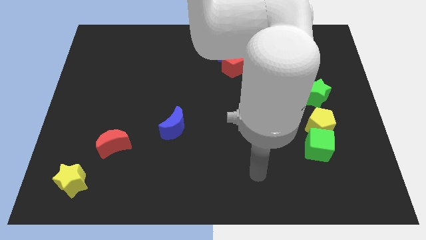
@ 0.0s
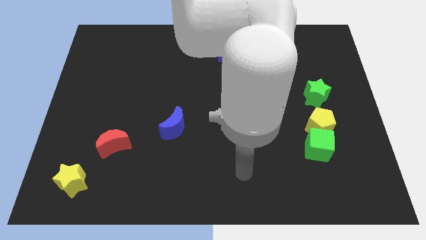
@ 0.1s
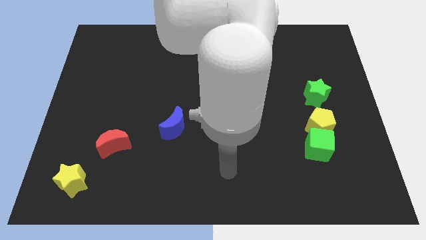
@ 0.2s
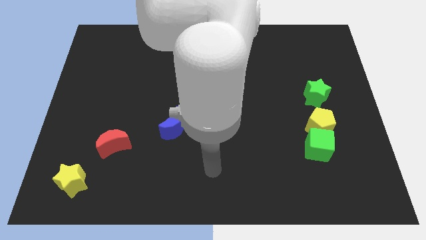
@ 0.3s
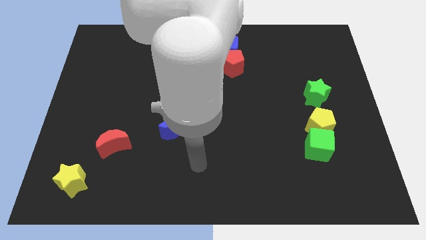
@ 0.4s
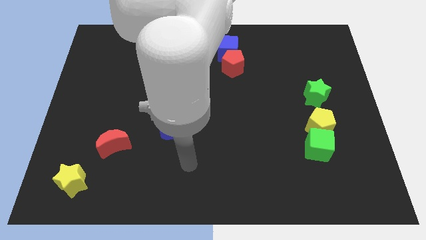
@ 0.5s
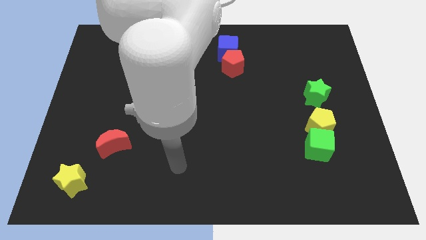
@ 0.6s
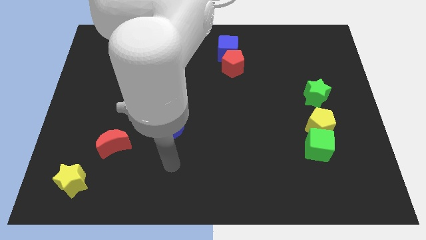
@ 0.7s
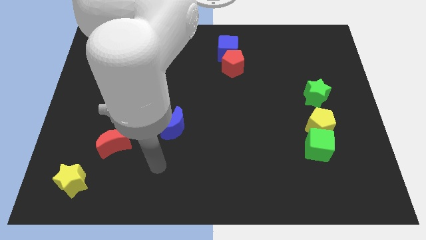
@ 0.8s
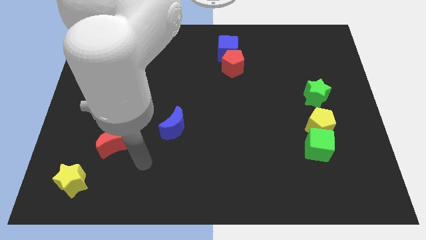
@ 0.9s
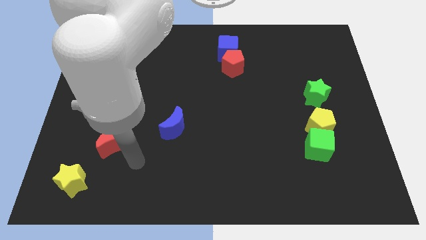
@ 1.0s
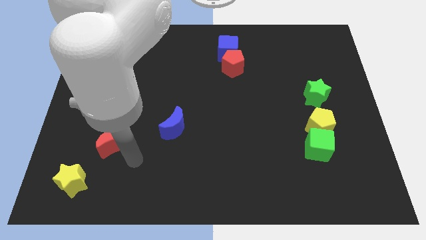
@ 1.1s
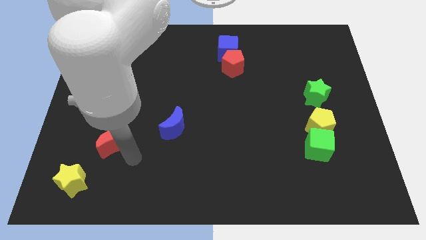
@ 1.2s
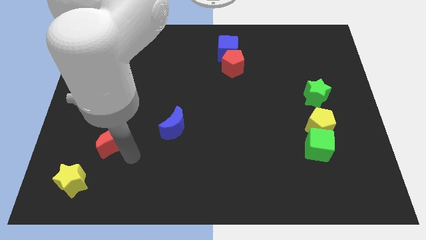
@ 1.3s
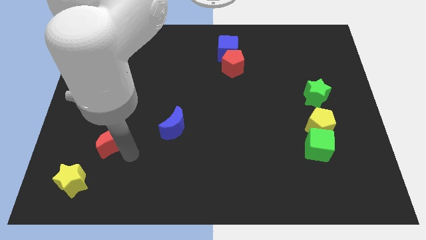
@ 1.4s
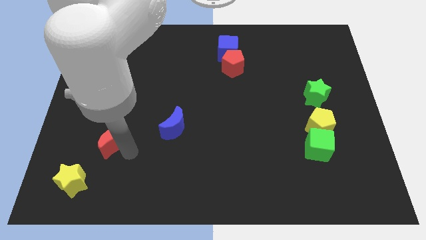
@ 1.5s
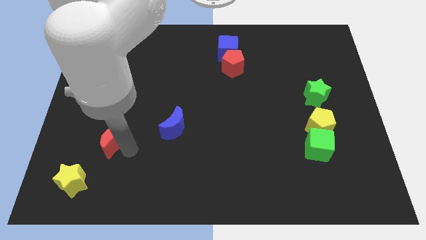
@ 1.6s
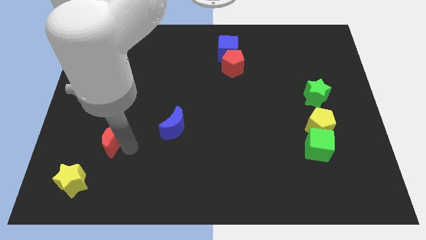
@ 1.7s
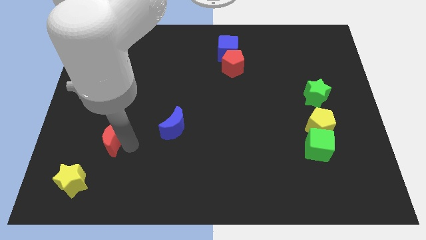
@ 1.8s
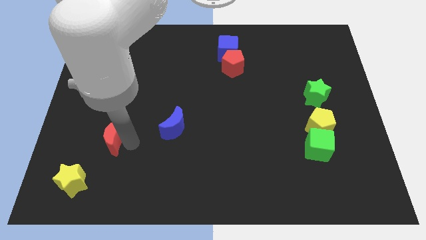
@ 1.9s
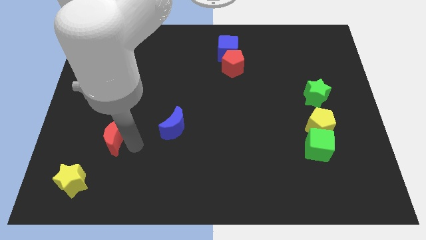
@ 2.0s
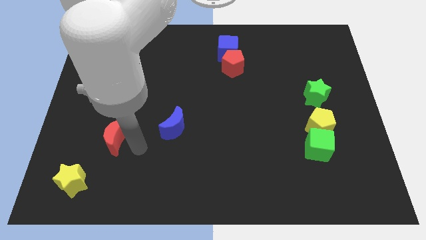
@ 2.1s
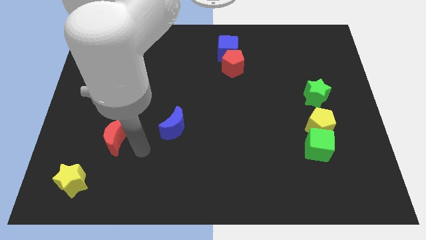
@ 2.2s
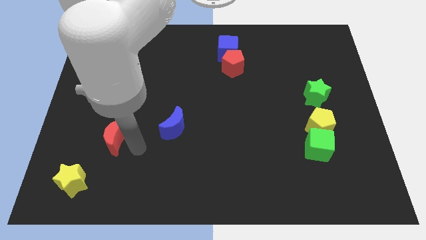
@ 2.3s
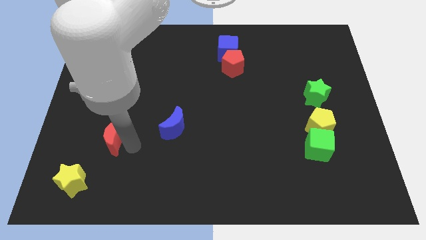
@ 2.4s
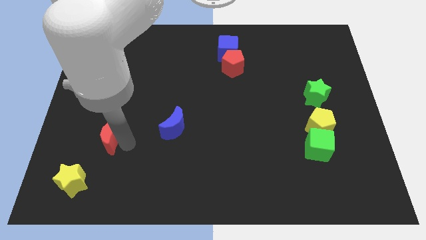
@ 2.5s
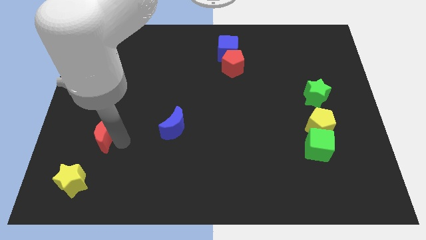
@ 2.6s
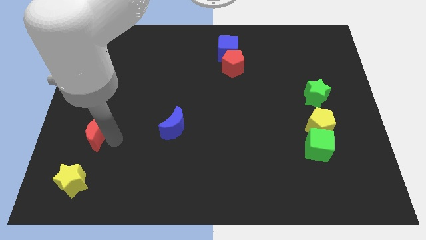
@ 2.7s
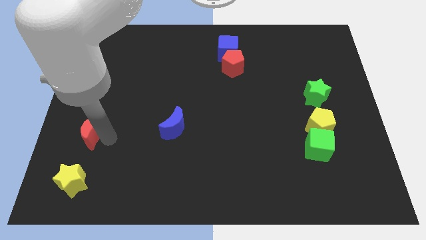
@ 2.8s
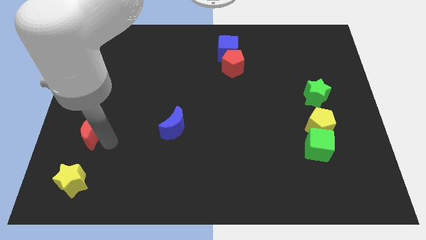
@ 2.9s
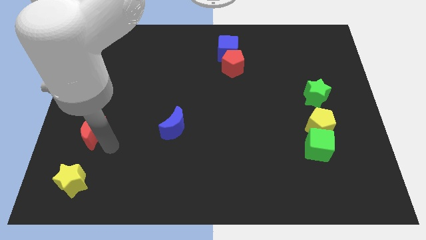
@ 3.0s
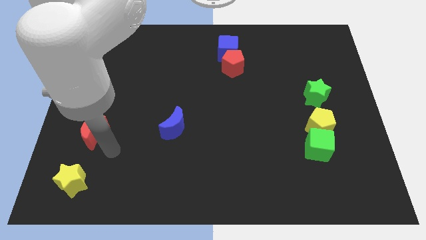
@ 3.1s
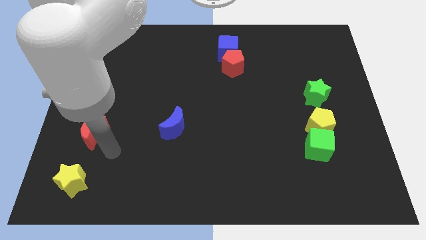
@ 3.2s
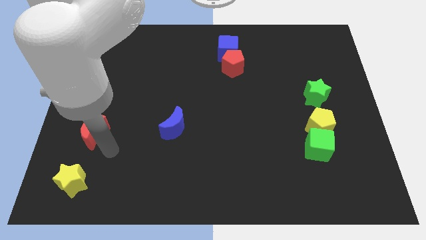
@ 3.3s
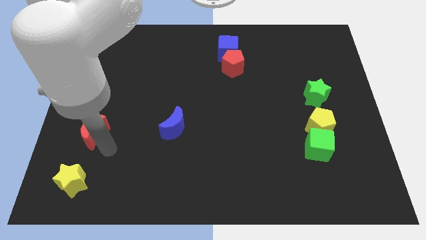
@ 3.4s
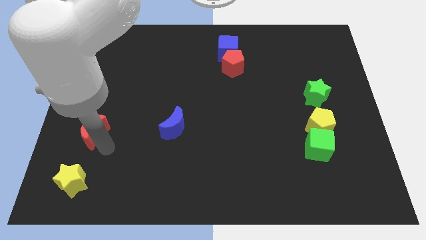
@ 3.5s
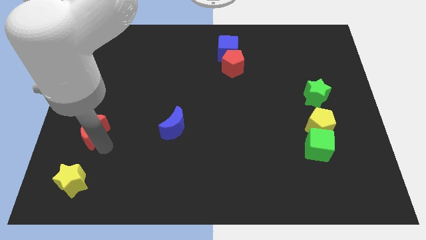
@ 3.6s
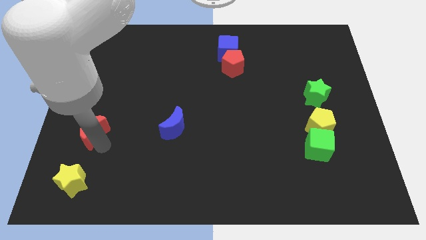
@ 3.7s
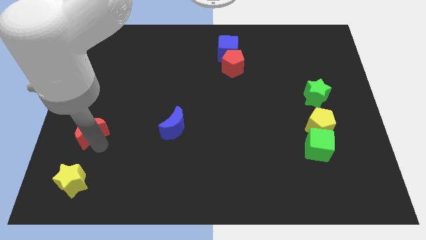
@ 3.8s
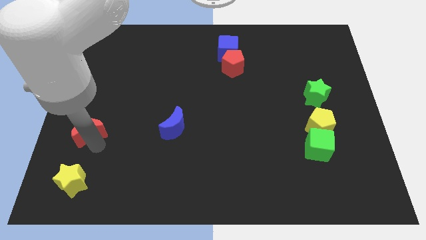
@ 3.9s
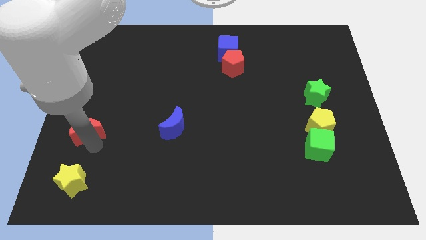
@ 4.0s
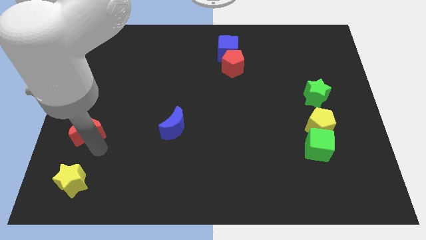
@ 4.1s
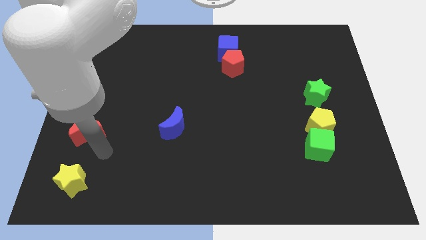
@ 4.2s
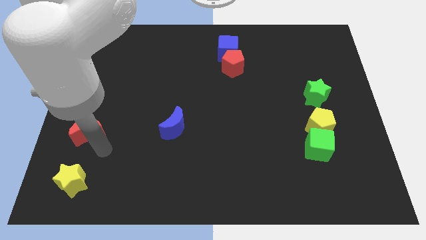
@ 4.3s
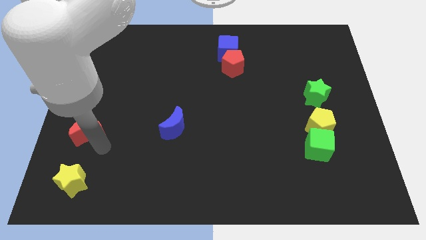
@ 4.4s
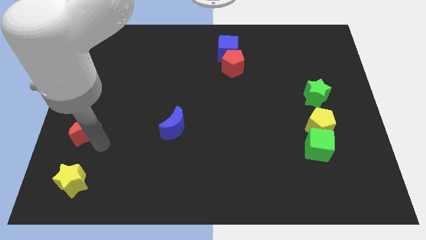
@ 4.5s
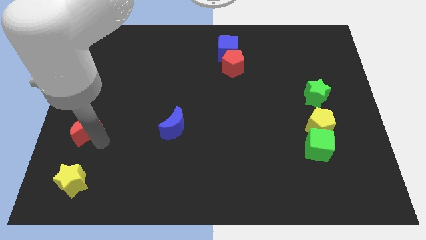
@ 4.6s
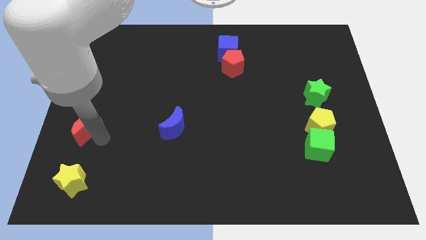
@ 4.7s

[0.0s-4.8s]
put the red moon to the left side

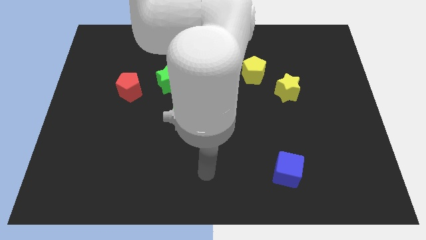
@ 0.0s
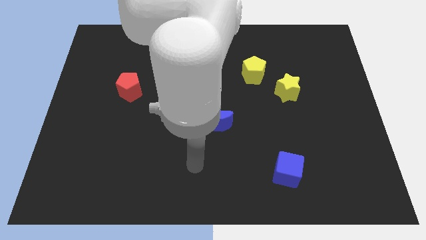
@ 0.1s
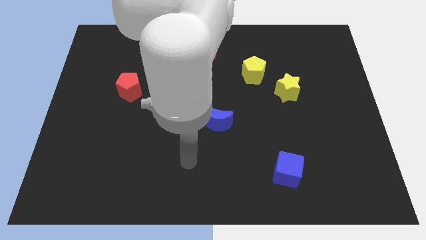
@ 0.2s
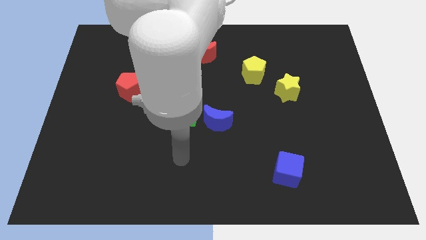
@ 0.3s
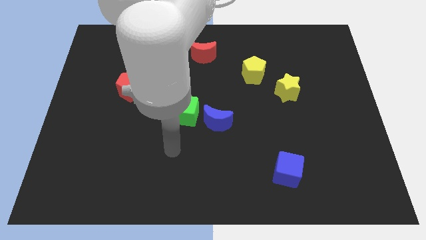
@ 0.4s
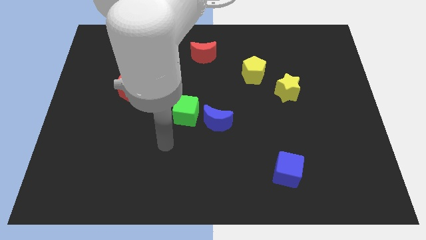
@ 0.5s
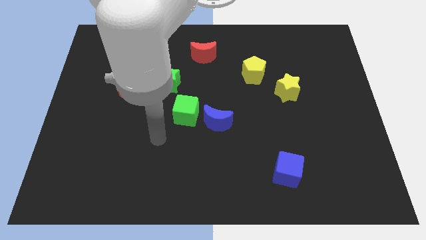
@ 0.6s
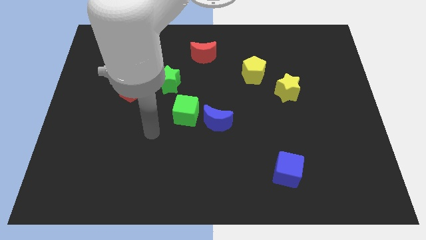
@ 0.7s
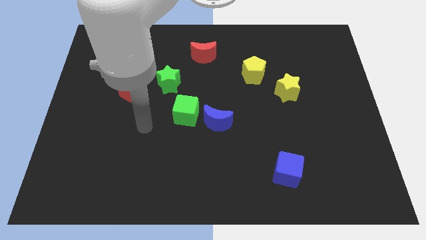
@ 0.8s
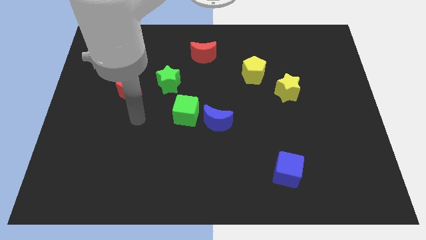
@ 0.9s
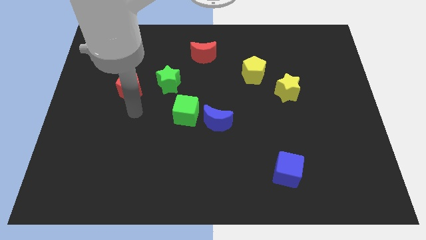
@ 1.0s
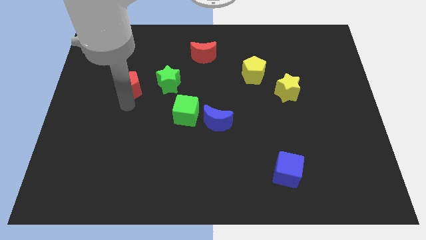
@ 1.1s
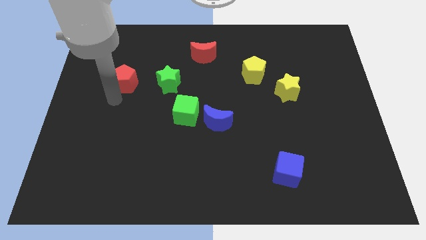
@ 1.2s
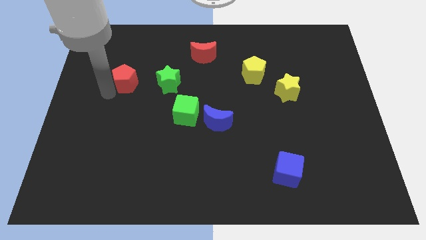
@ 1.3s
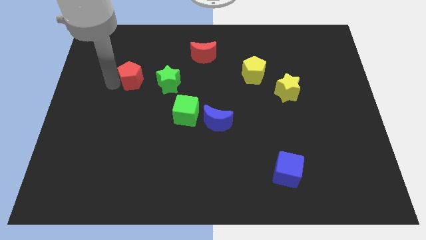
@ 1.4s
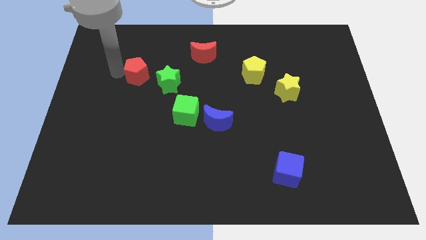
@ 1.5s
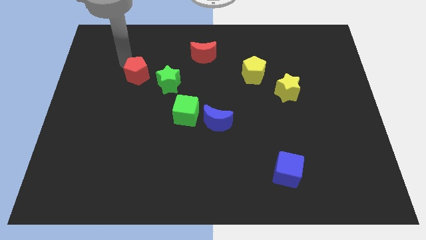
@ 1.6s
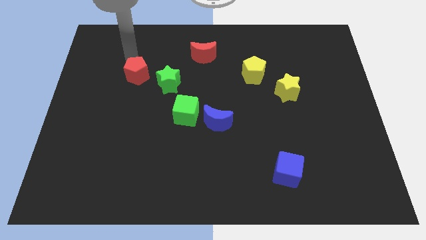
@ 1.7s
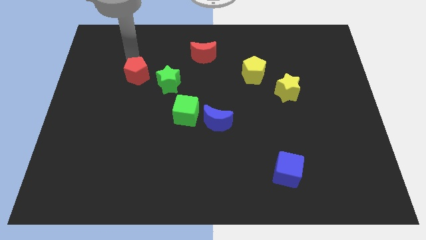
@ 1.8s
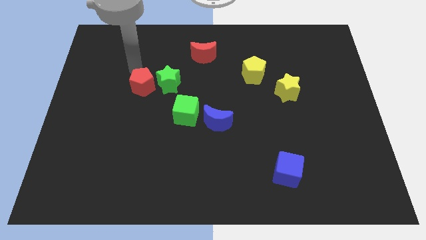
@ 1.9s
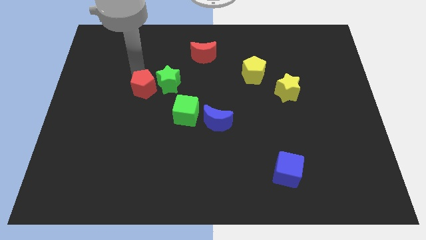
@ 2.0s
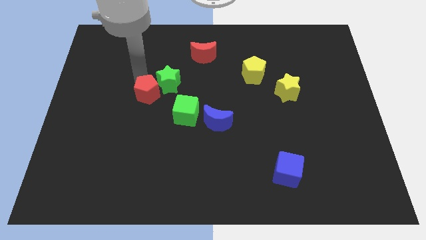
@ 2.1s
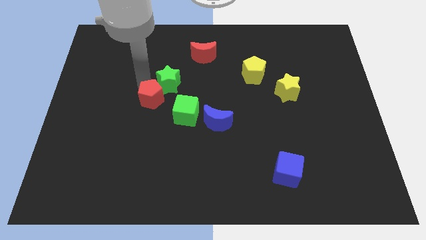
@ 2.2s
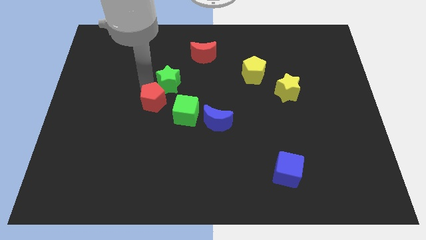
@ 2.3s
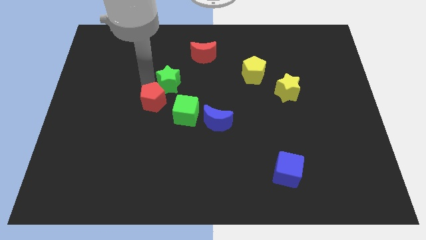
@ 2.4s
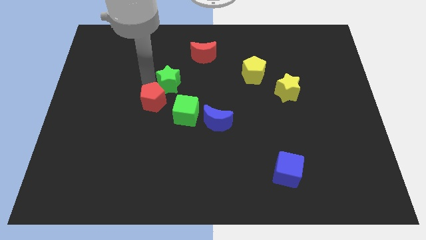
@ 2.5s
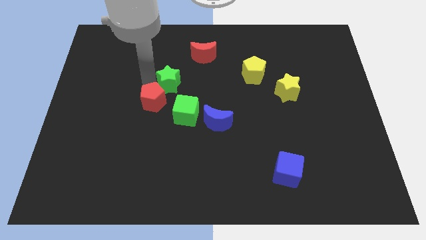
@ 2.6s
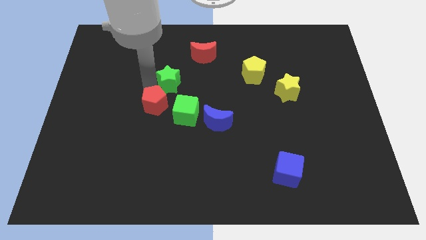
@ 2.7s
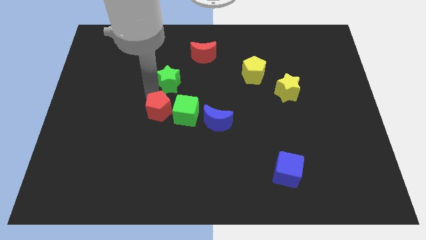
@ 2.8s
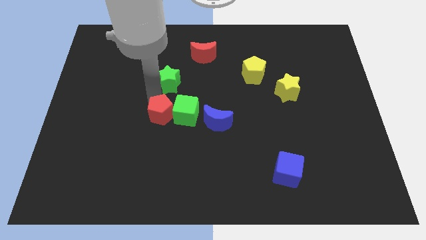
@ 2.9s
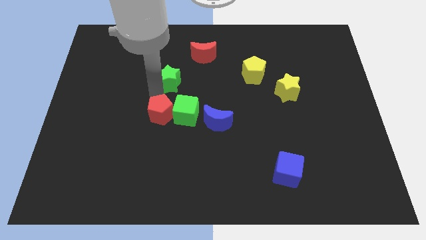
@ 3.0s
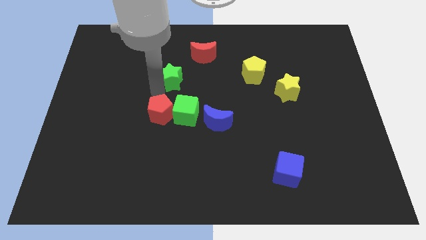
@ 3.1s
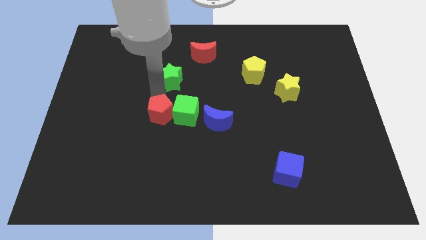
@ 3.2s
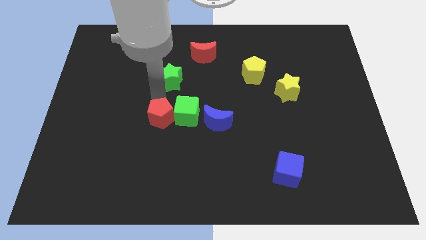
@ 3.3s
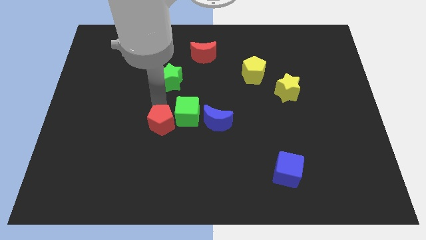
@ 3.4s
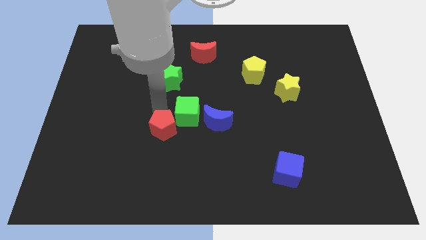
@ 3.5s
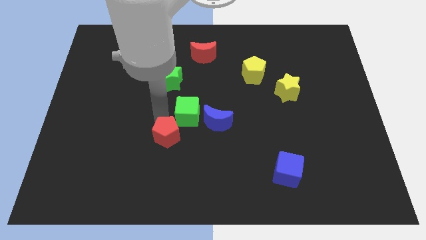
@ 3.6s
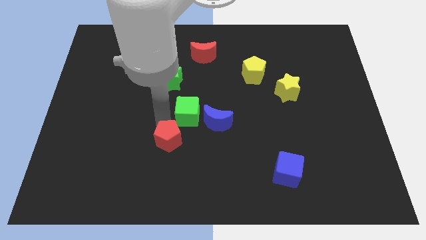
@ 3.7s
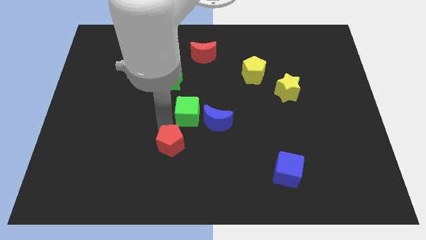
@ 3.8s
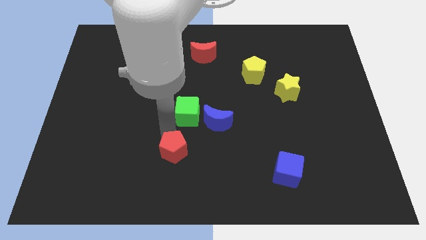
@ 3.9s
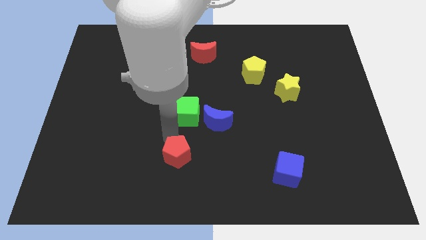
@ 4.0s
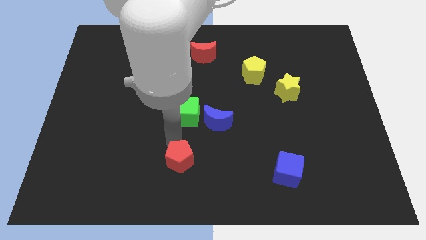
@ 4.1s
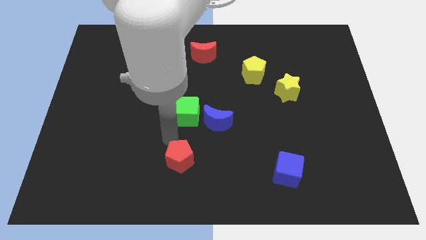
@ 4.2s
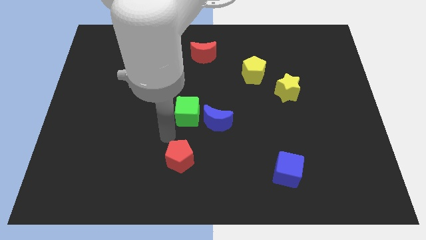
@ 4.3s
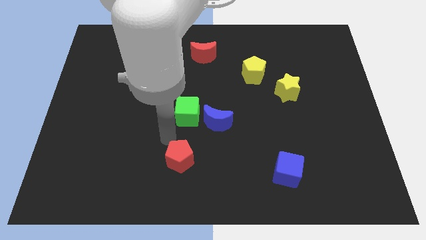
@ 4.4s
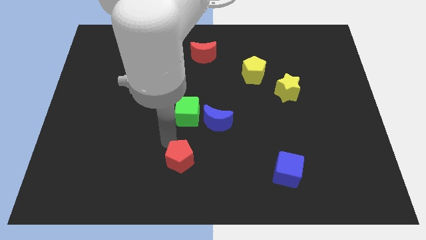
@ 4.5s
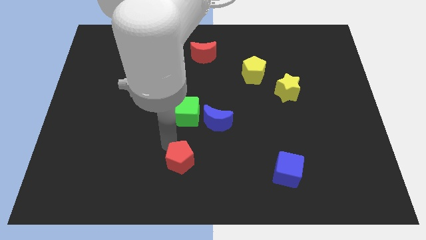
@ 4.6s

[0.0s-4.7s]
put the red pentagon to the bottom side
